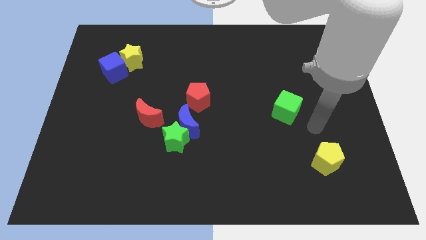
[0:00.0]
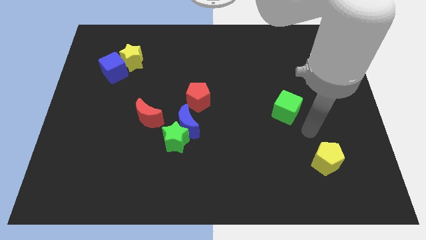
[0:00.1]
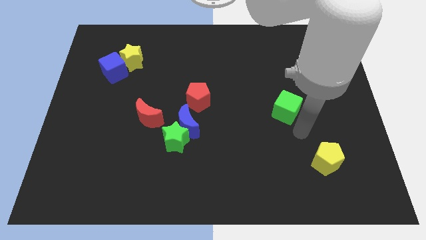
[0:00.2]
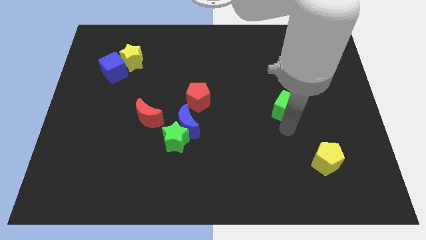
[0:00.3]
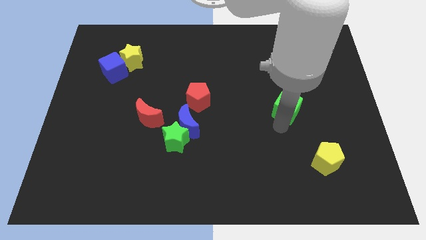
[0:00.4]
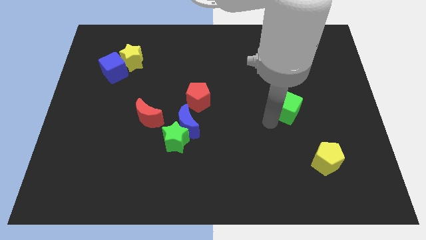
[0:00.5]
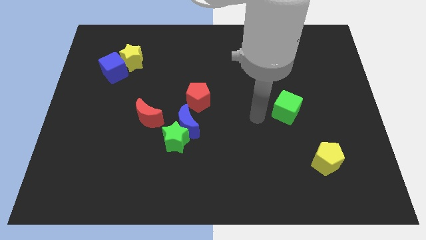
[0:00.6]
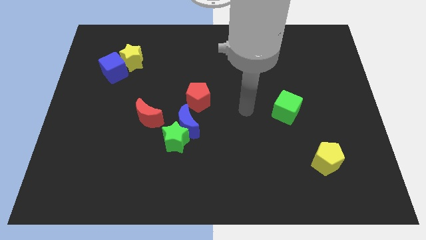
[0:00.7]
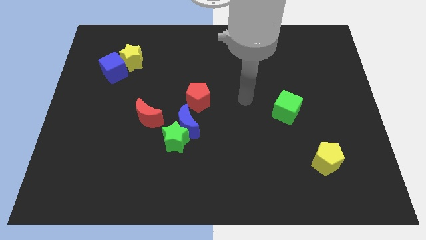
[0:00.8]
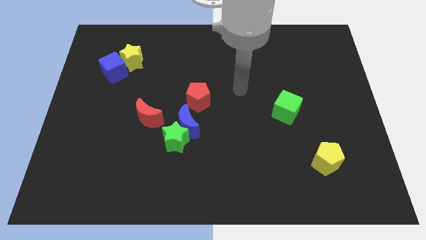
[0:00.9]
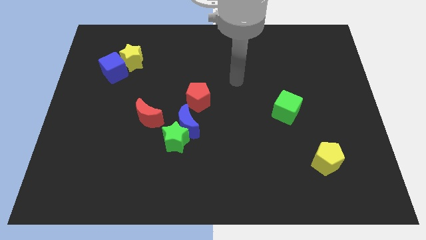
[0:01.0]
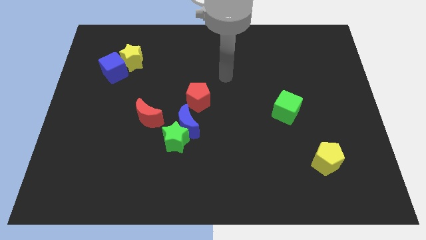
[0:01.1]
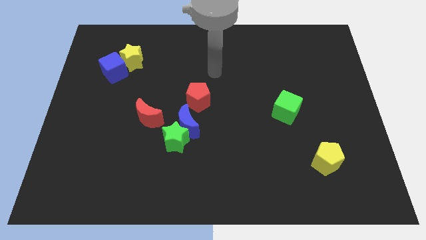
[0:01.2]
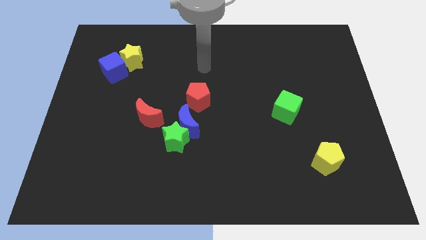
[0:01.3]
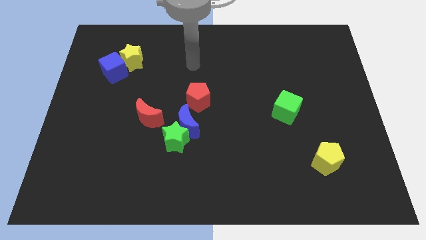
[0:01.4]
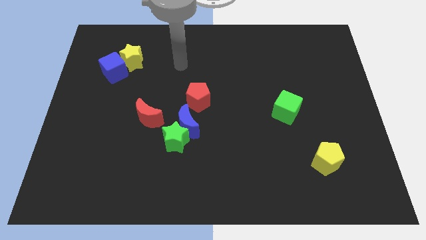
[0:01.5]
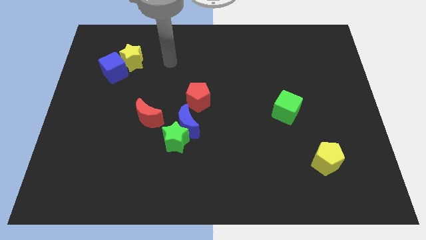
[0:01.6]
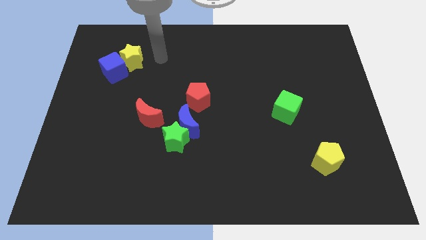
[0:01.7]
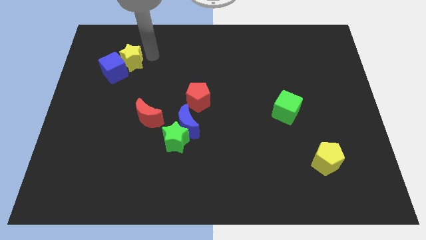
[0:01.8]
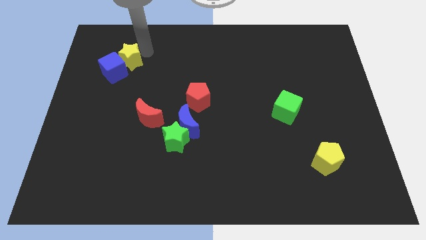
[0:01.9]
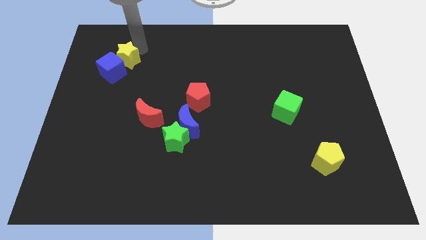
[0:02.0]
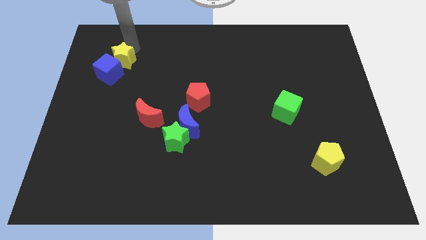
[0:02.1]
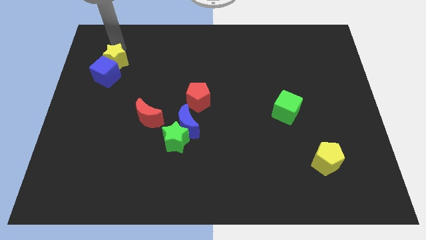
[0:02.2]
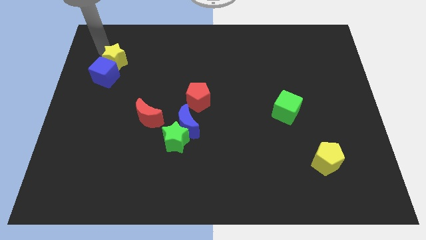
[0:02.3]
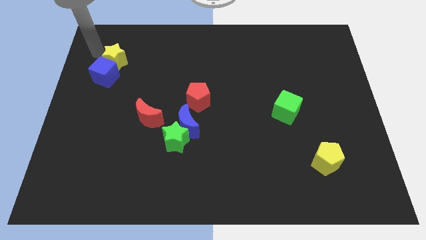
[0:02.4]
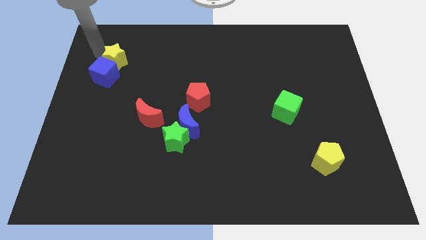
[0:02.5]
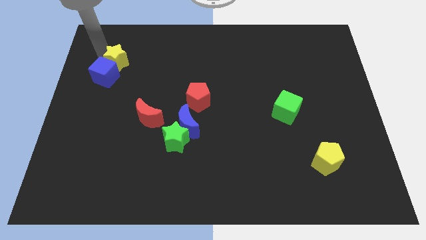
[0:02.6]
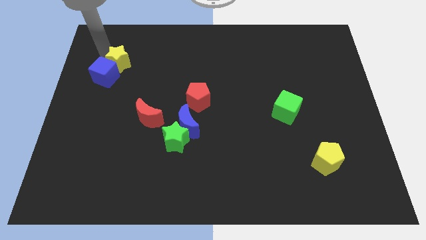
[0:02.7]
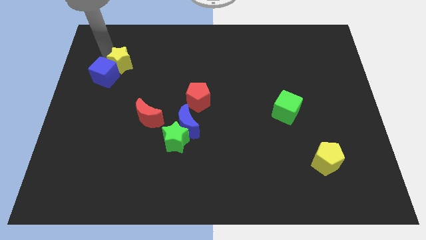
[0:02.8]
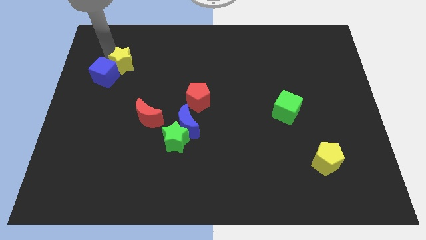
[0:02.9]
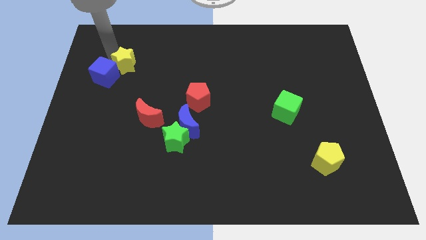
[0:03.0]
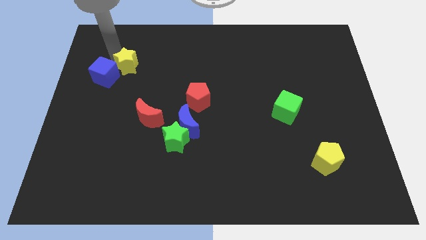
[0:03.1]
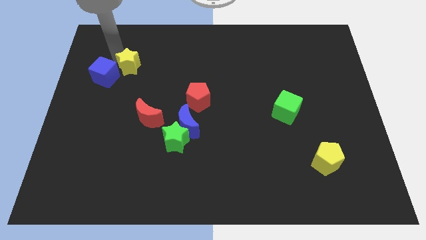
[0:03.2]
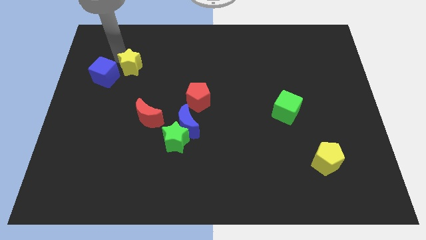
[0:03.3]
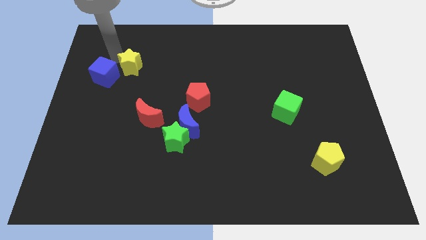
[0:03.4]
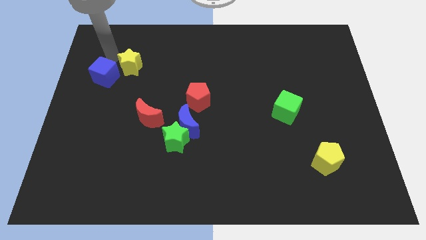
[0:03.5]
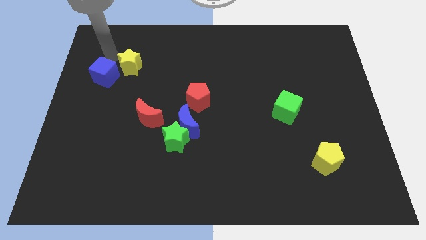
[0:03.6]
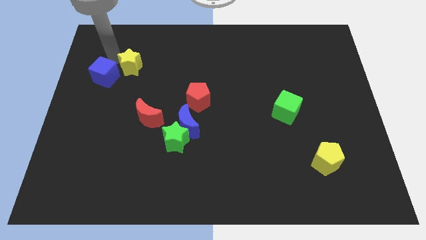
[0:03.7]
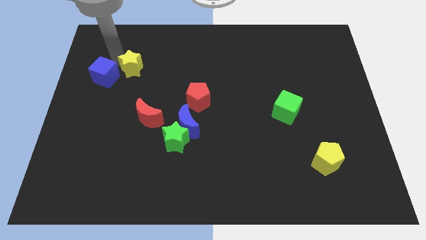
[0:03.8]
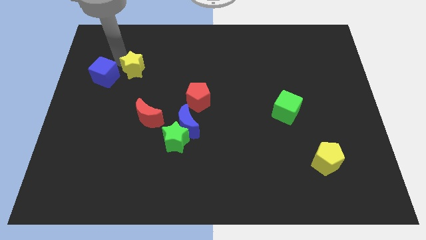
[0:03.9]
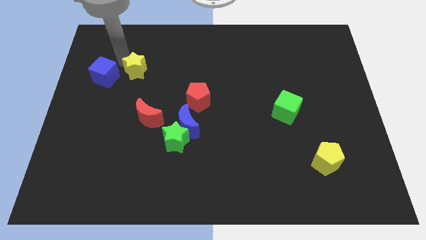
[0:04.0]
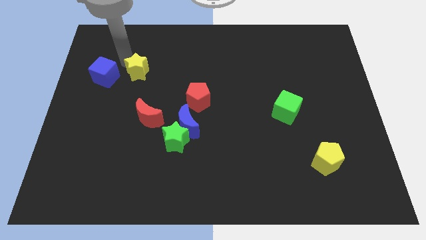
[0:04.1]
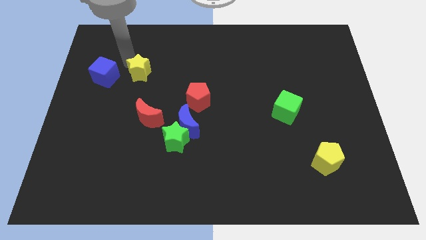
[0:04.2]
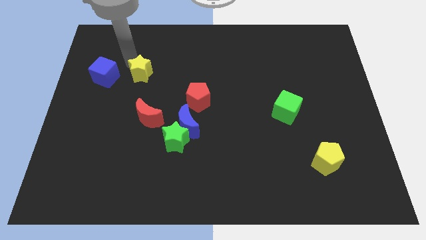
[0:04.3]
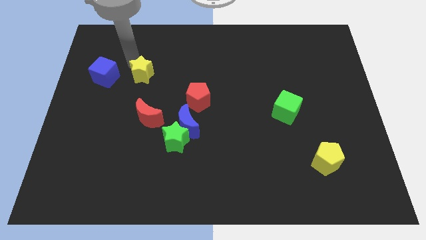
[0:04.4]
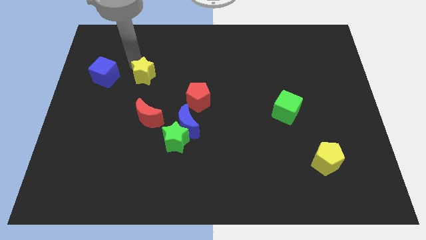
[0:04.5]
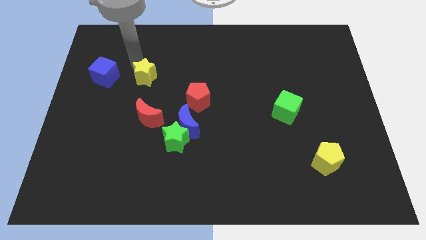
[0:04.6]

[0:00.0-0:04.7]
push the yellow star diagonally downwards and right a little

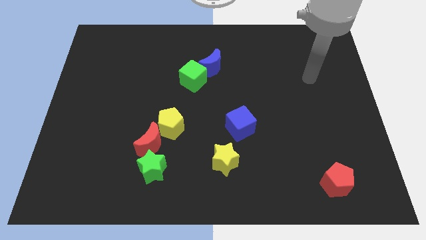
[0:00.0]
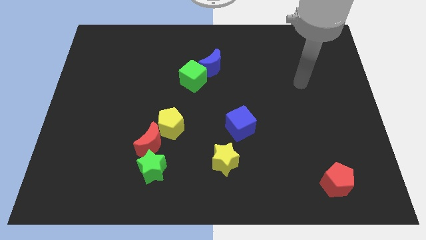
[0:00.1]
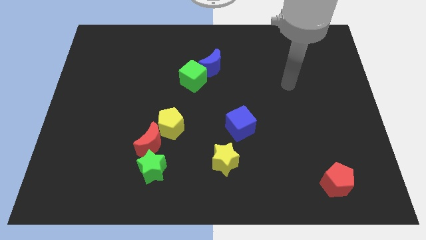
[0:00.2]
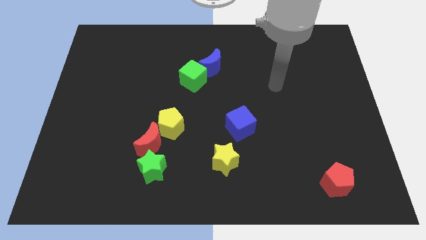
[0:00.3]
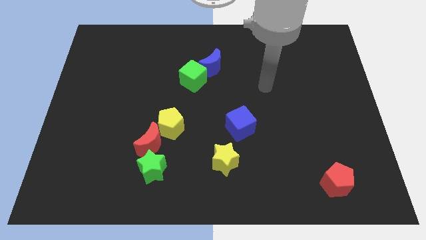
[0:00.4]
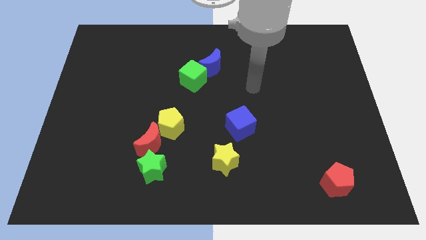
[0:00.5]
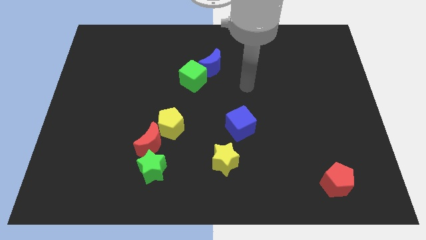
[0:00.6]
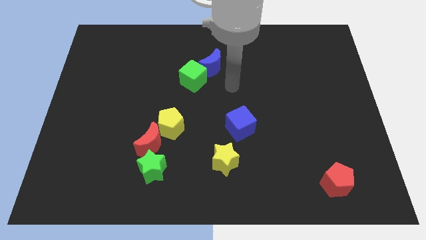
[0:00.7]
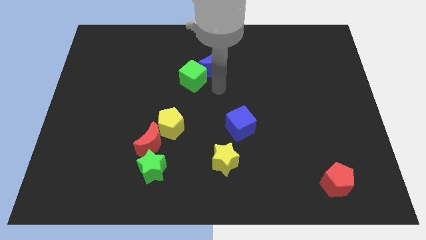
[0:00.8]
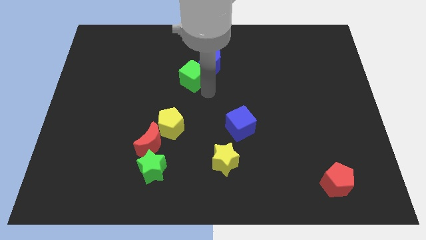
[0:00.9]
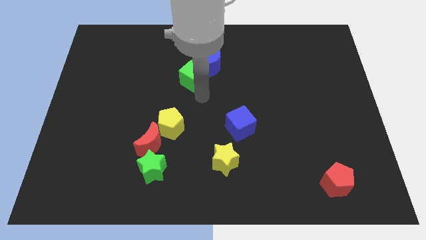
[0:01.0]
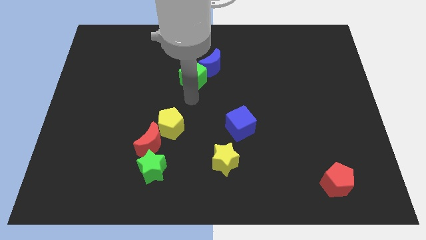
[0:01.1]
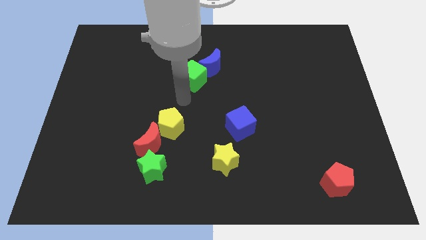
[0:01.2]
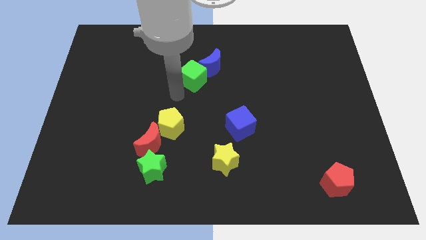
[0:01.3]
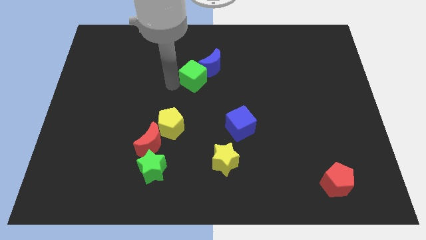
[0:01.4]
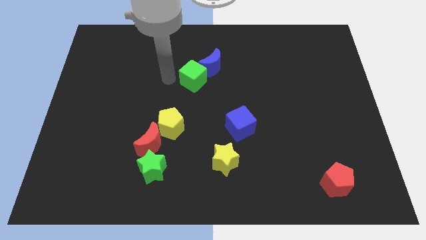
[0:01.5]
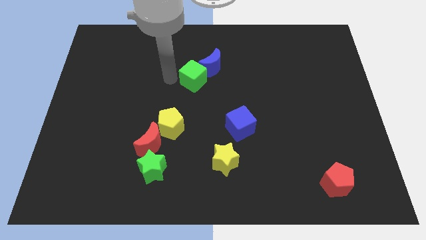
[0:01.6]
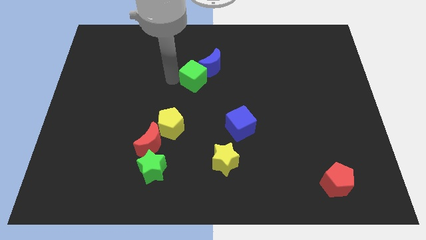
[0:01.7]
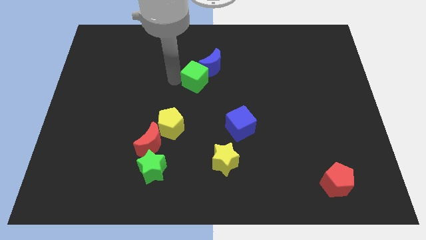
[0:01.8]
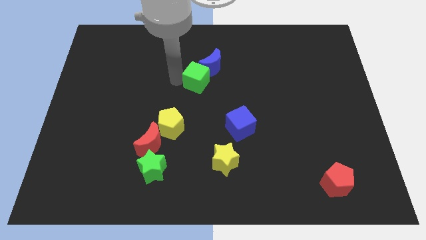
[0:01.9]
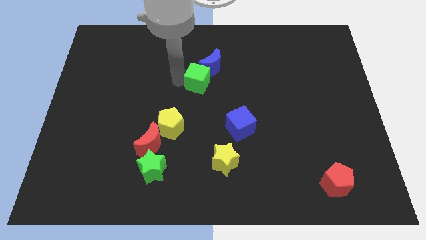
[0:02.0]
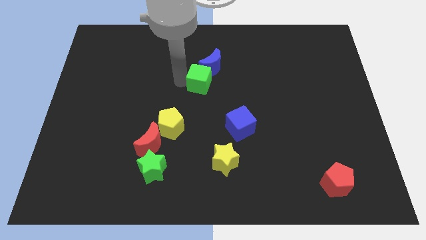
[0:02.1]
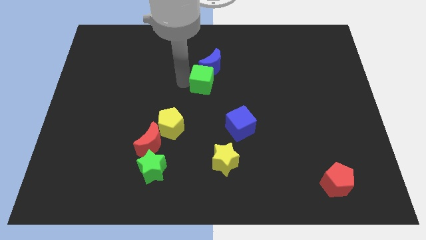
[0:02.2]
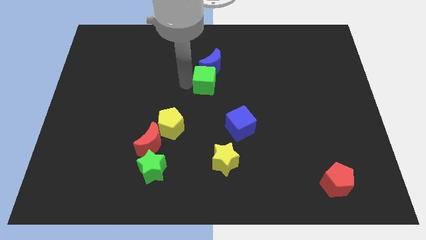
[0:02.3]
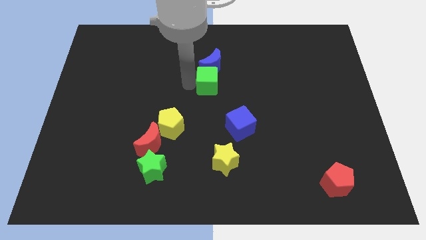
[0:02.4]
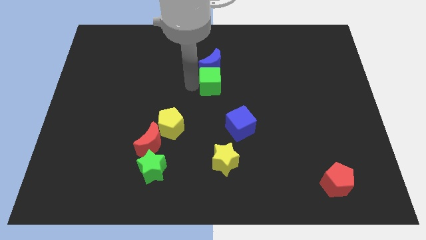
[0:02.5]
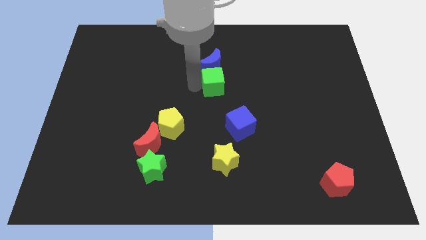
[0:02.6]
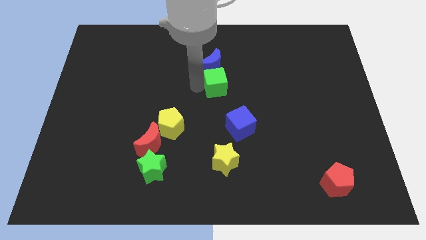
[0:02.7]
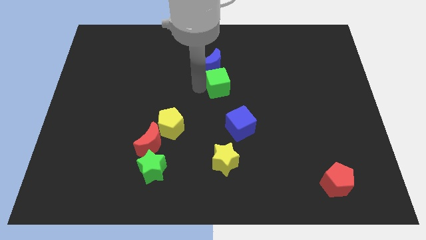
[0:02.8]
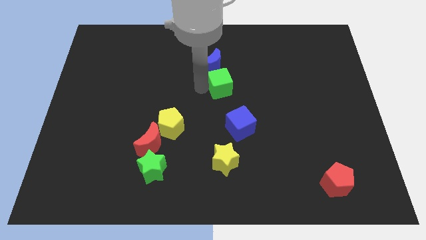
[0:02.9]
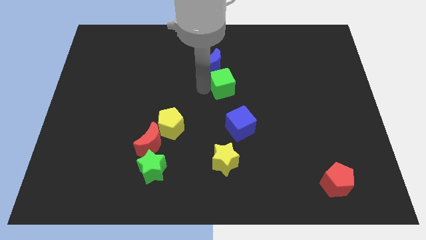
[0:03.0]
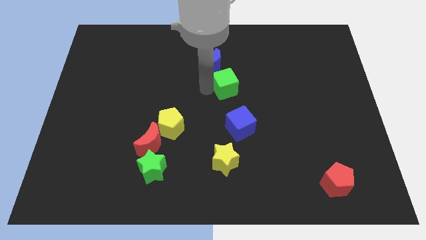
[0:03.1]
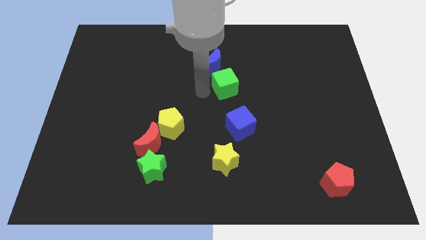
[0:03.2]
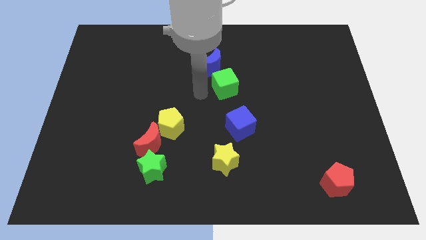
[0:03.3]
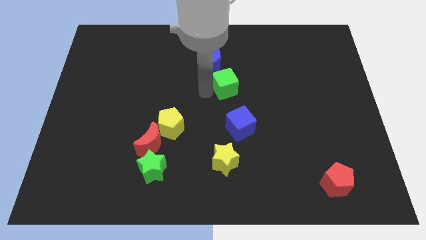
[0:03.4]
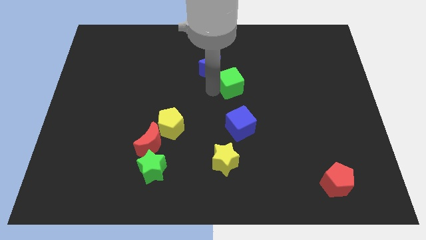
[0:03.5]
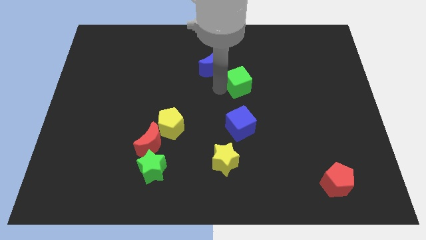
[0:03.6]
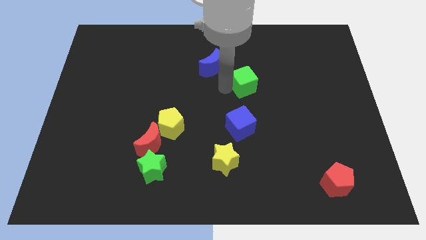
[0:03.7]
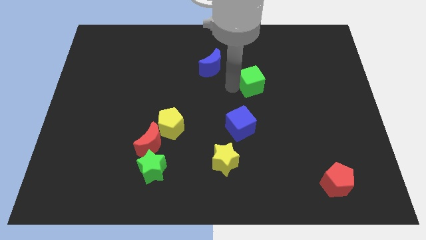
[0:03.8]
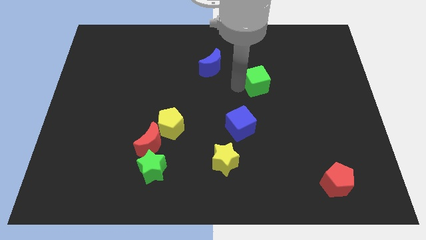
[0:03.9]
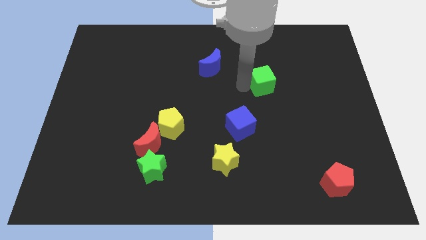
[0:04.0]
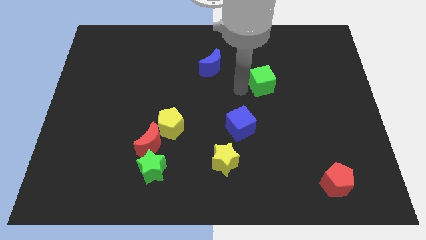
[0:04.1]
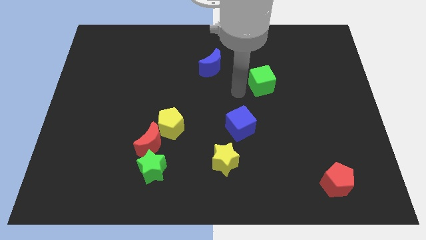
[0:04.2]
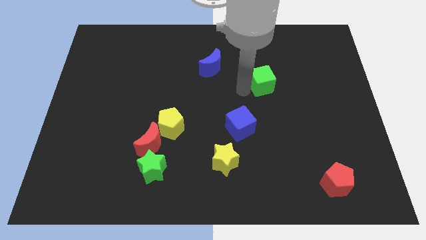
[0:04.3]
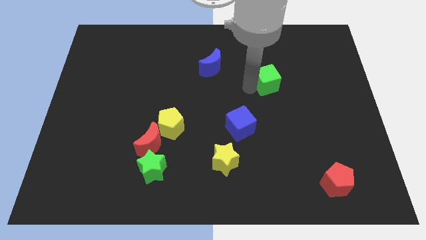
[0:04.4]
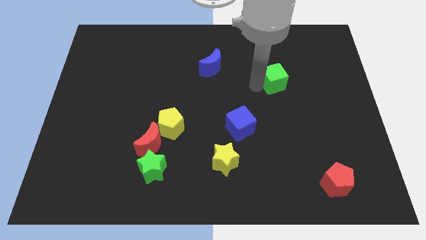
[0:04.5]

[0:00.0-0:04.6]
move the green cube right
